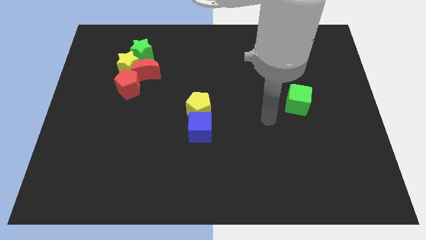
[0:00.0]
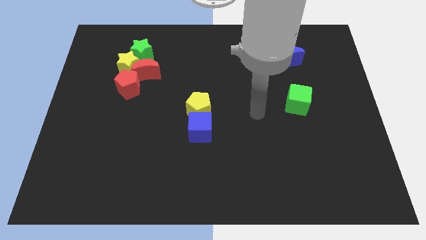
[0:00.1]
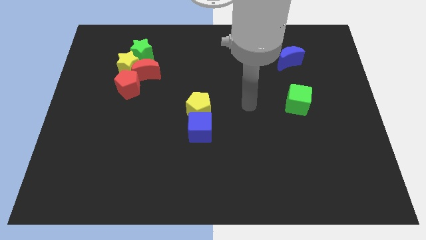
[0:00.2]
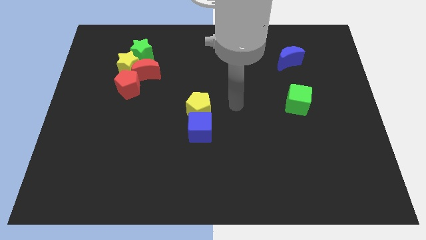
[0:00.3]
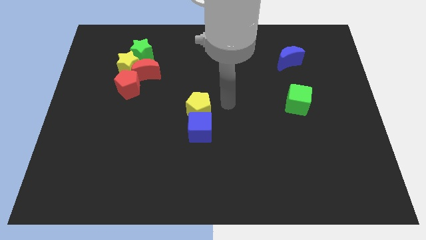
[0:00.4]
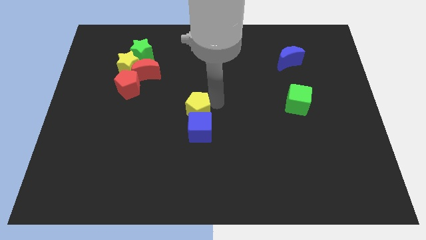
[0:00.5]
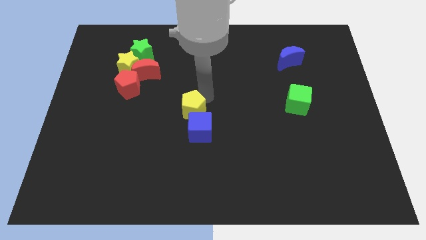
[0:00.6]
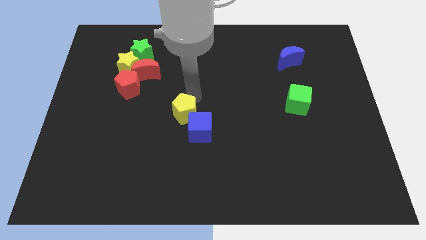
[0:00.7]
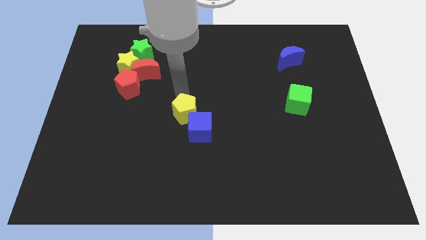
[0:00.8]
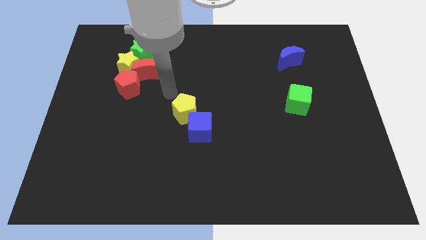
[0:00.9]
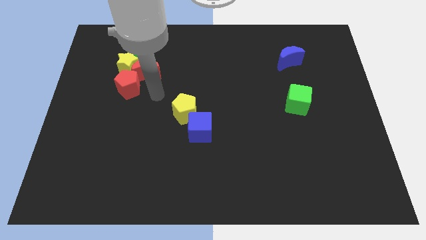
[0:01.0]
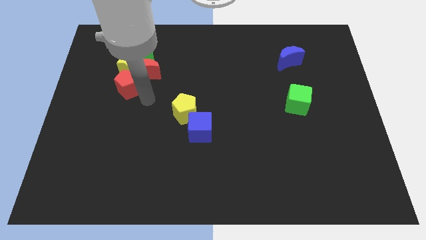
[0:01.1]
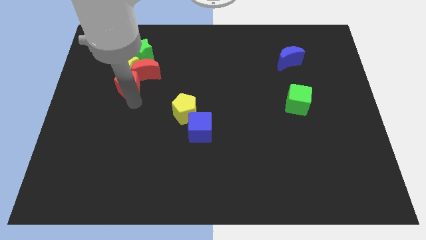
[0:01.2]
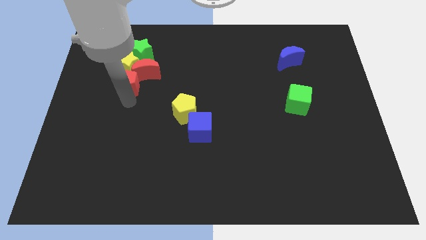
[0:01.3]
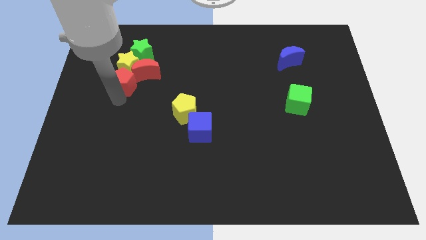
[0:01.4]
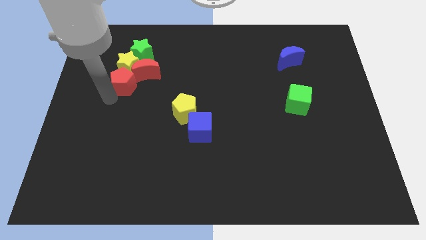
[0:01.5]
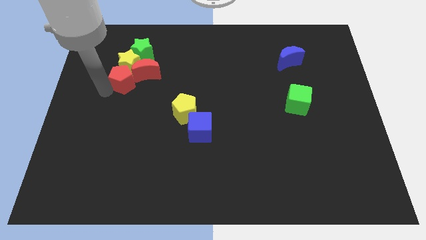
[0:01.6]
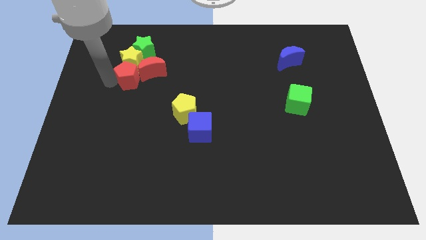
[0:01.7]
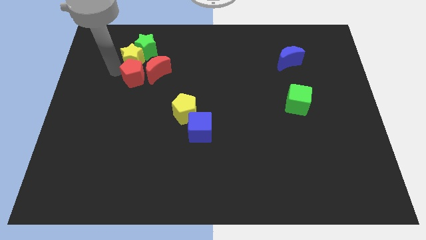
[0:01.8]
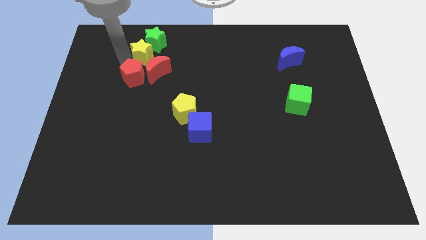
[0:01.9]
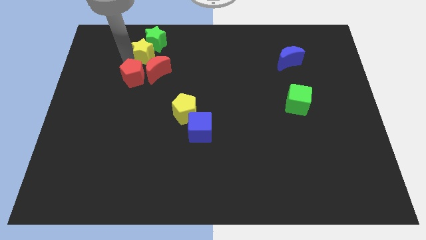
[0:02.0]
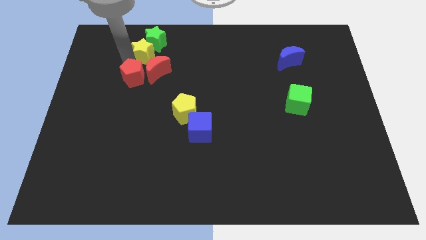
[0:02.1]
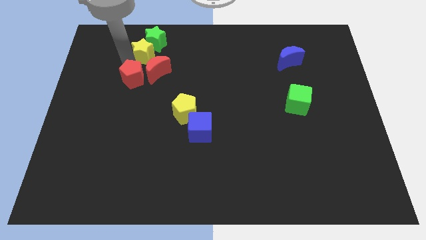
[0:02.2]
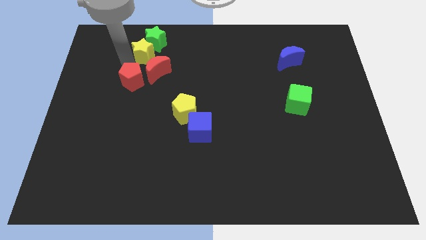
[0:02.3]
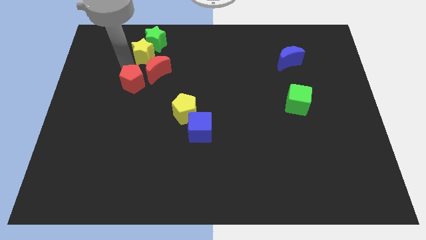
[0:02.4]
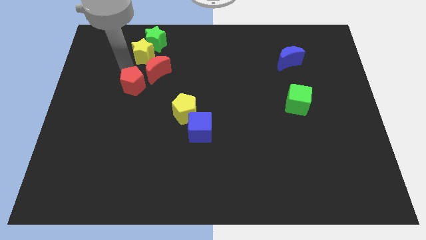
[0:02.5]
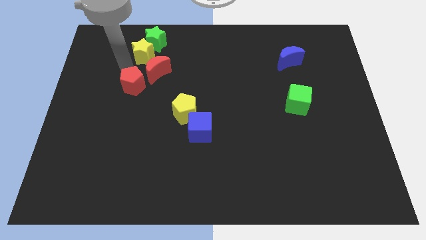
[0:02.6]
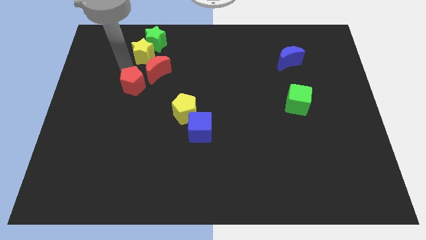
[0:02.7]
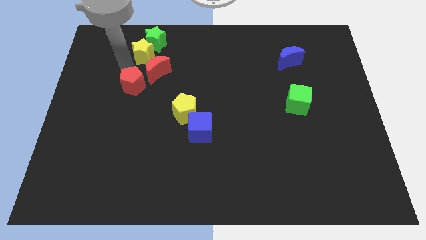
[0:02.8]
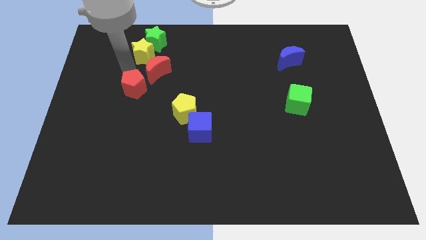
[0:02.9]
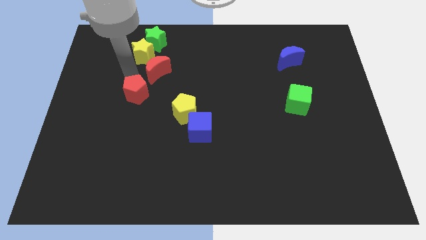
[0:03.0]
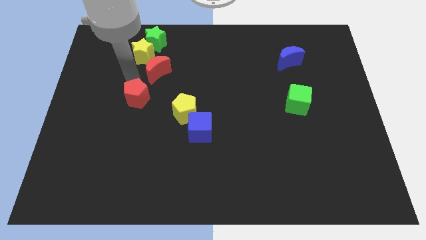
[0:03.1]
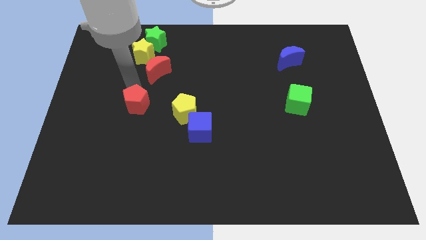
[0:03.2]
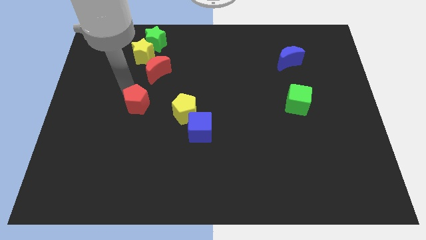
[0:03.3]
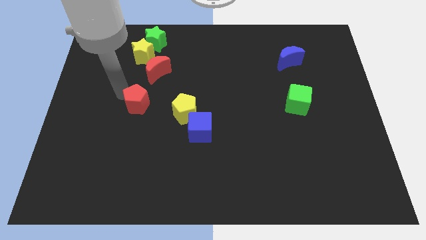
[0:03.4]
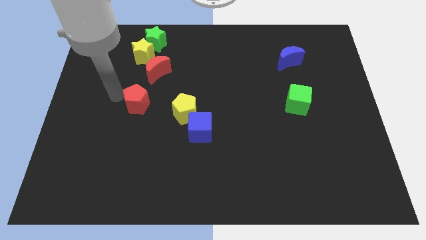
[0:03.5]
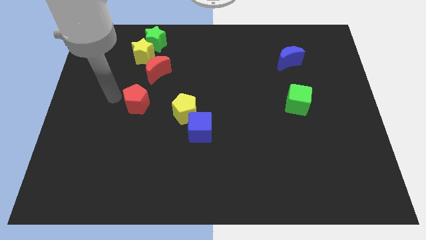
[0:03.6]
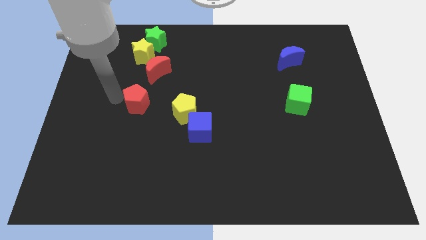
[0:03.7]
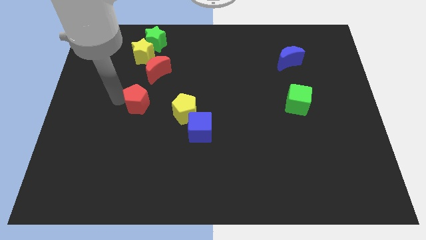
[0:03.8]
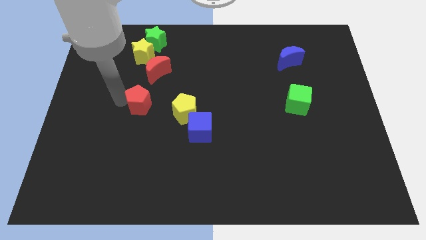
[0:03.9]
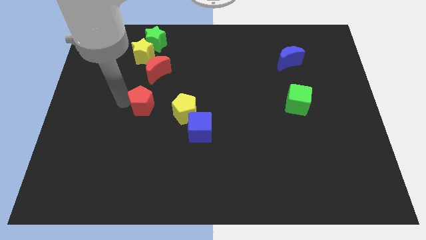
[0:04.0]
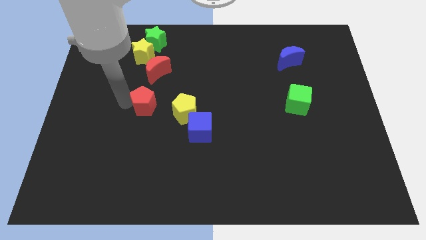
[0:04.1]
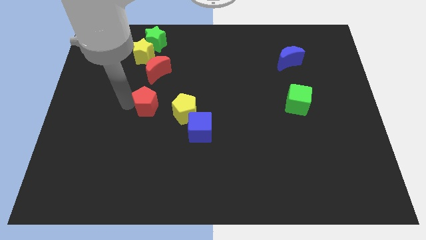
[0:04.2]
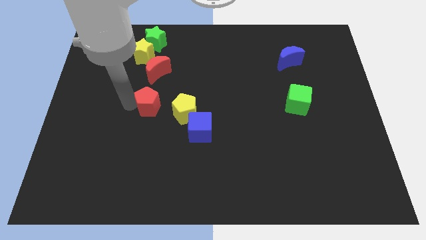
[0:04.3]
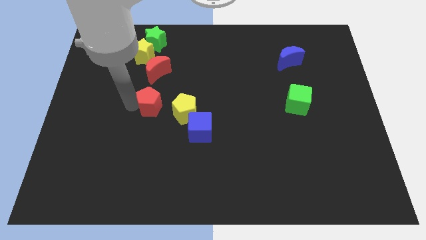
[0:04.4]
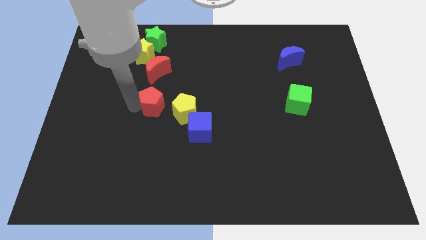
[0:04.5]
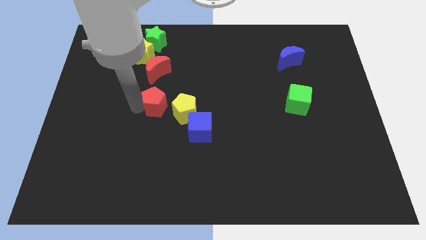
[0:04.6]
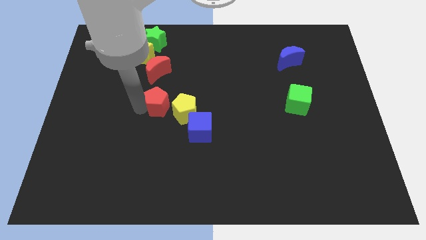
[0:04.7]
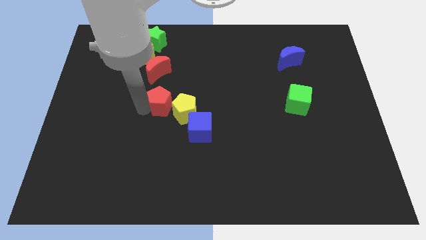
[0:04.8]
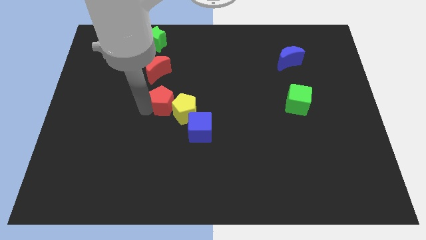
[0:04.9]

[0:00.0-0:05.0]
push the red pentagon close to the yellow pentagon

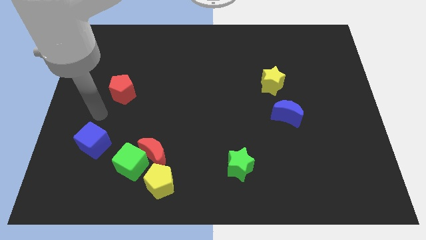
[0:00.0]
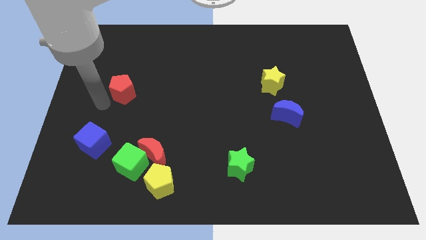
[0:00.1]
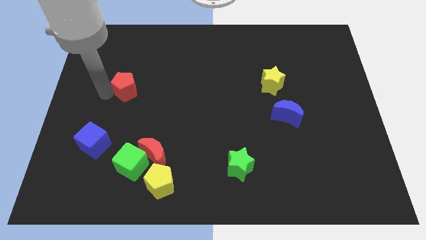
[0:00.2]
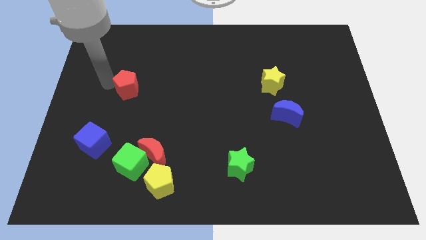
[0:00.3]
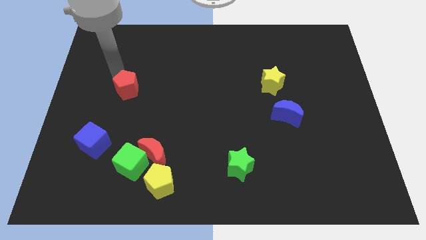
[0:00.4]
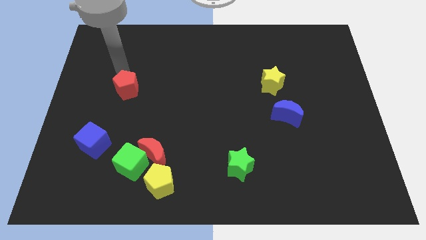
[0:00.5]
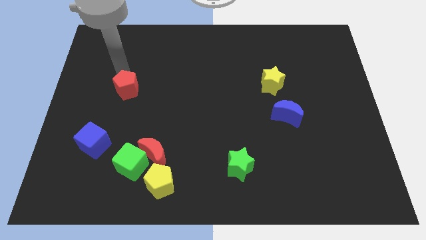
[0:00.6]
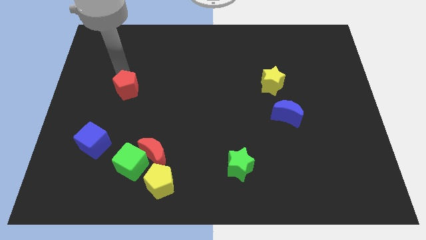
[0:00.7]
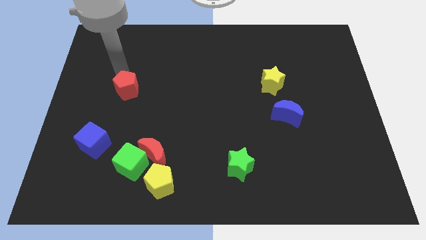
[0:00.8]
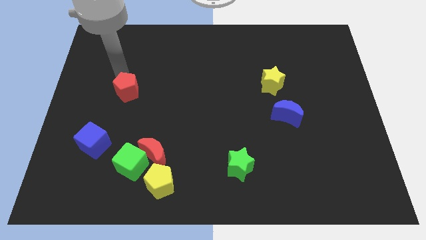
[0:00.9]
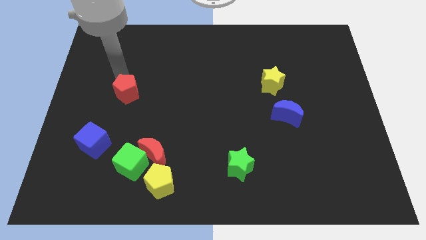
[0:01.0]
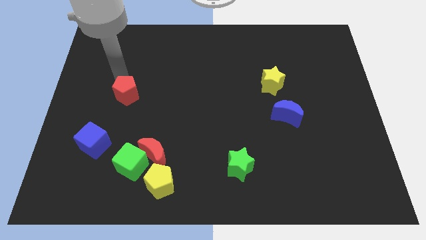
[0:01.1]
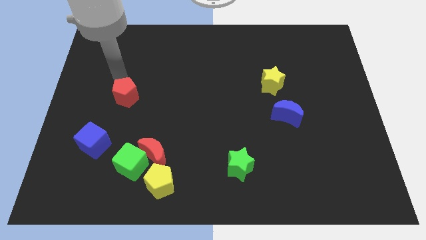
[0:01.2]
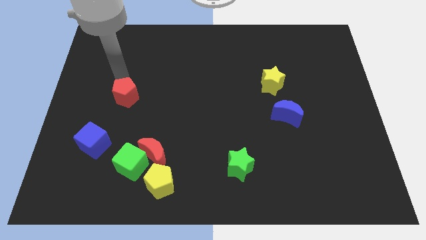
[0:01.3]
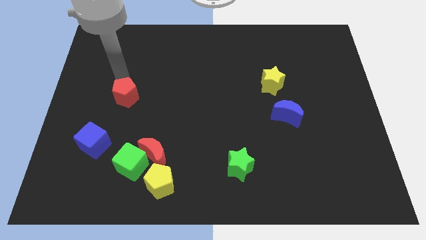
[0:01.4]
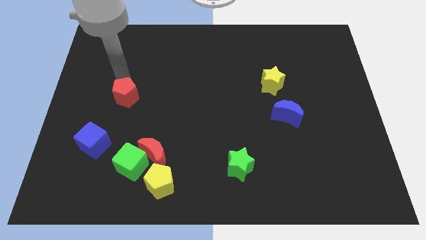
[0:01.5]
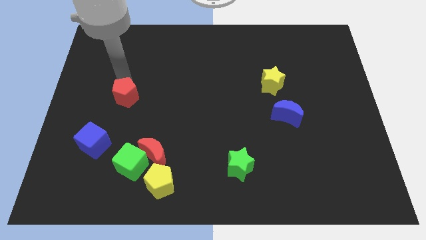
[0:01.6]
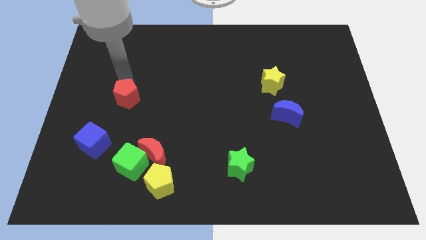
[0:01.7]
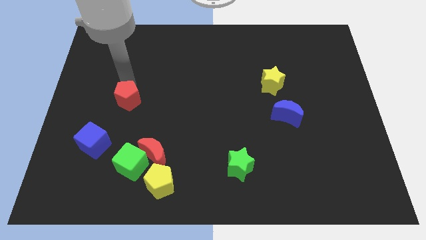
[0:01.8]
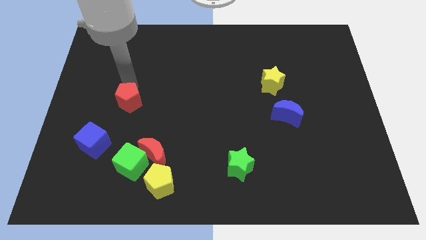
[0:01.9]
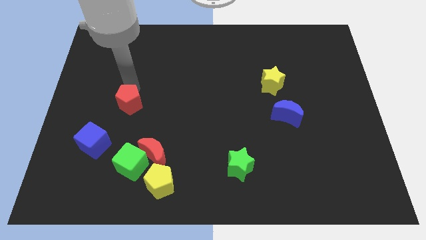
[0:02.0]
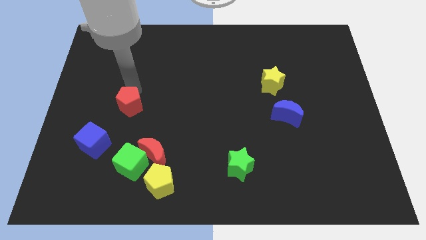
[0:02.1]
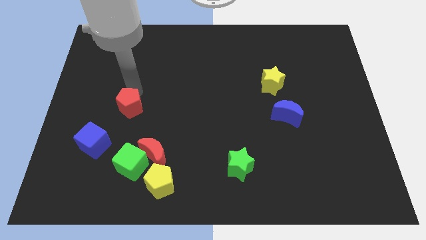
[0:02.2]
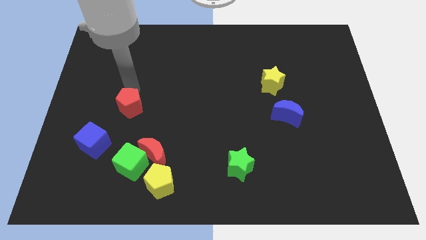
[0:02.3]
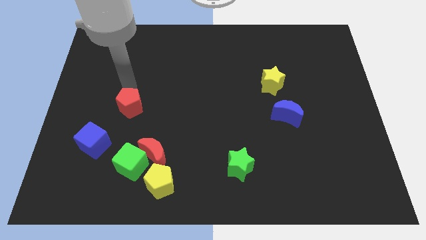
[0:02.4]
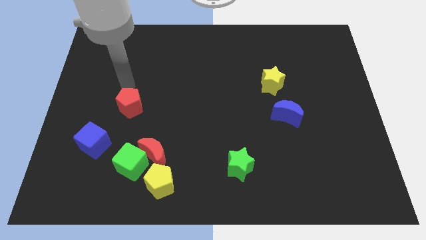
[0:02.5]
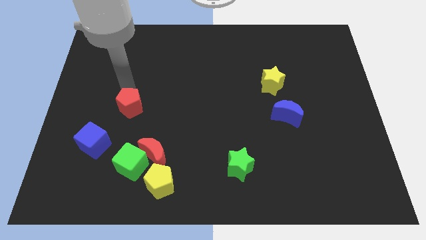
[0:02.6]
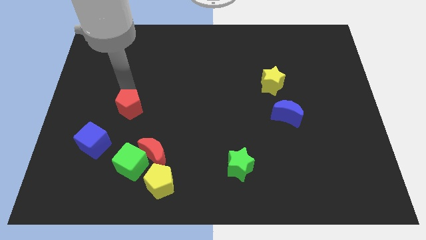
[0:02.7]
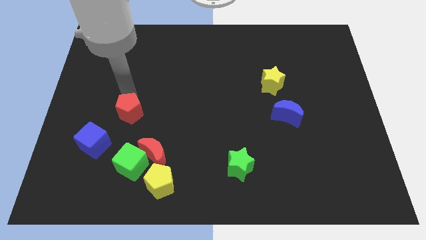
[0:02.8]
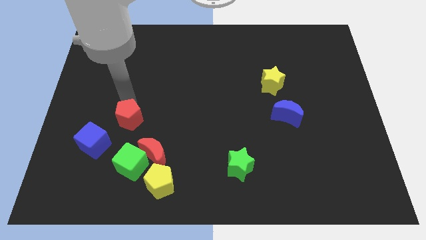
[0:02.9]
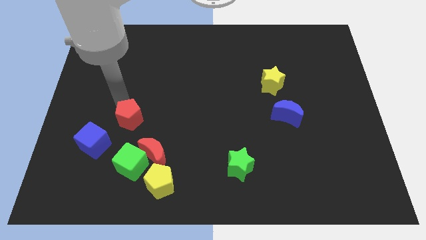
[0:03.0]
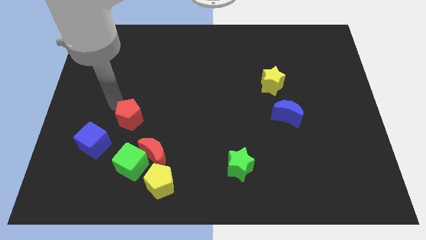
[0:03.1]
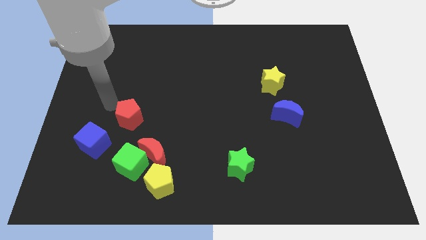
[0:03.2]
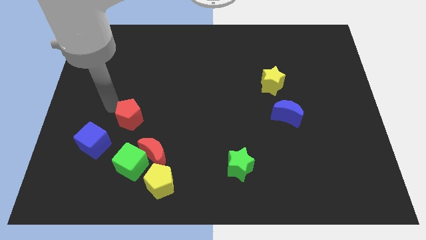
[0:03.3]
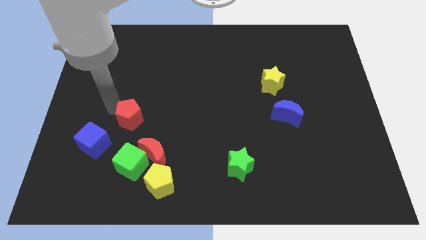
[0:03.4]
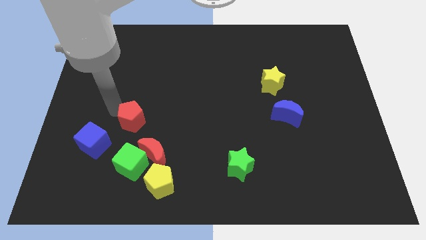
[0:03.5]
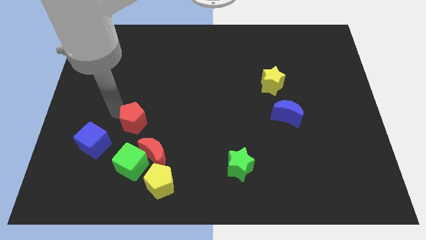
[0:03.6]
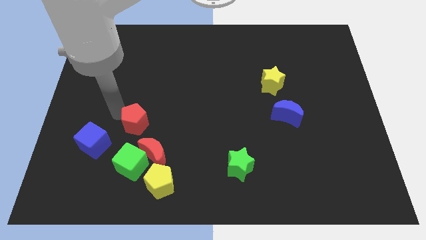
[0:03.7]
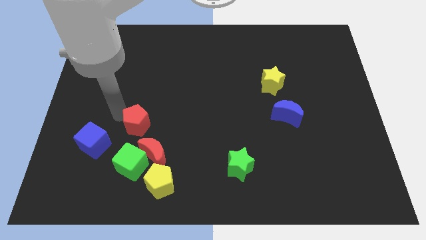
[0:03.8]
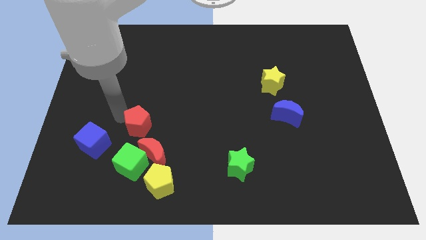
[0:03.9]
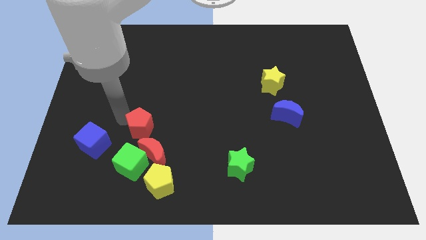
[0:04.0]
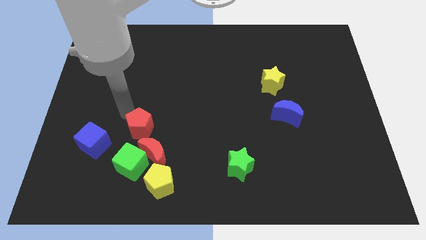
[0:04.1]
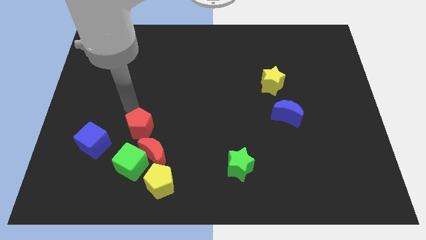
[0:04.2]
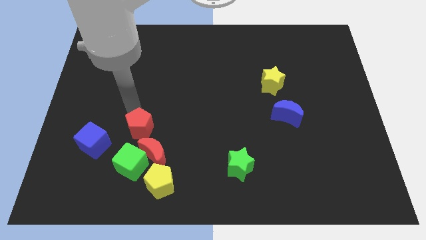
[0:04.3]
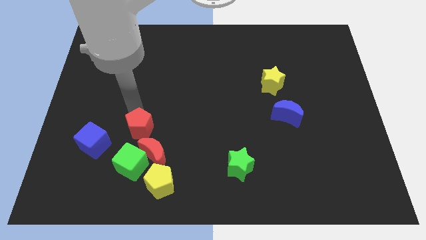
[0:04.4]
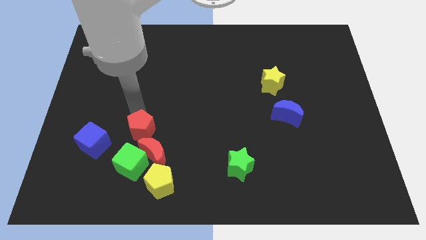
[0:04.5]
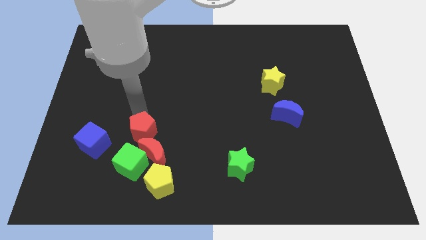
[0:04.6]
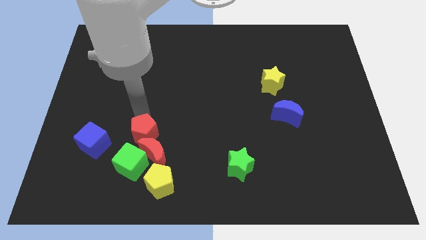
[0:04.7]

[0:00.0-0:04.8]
slide the red pentagon next to the red moon
